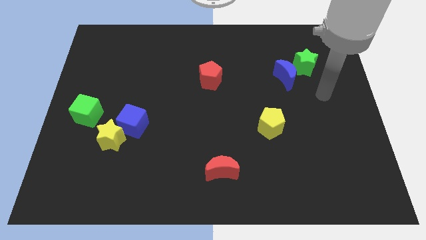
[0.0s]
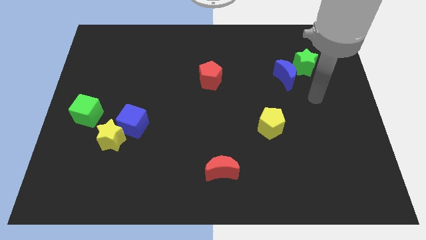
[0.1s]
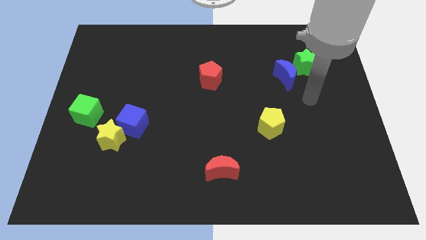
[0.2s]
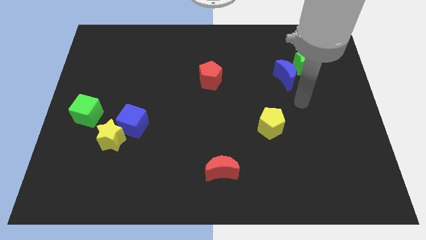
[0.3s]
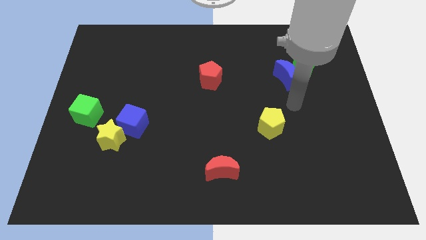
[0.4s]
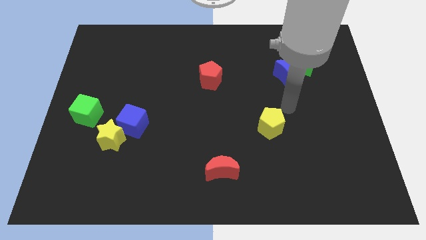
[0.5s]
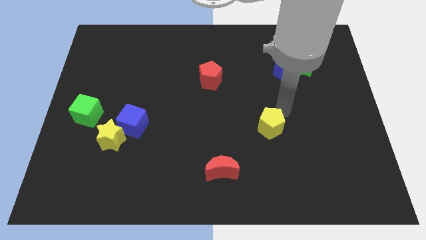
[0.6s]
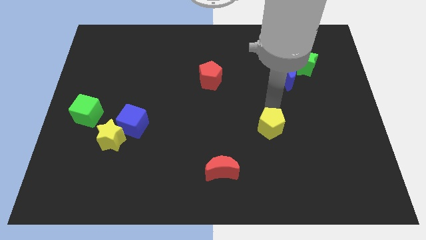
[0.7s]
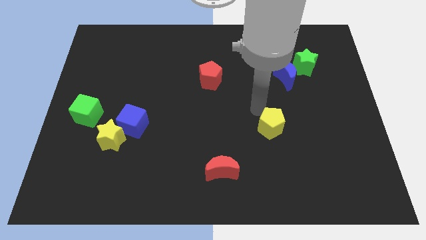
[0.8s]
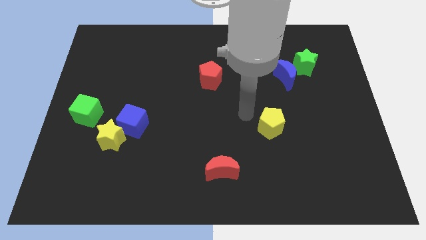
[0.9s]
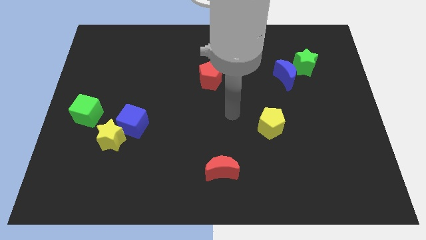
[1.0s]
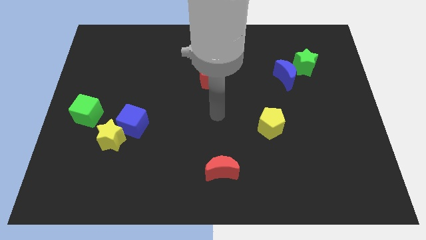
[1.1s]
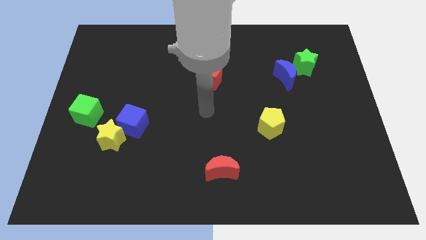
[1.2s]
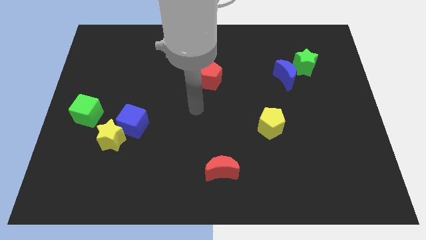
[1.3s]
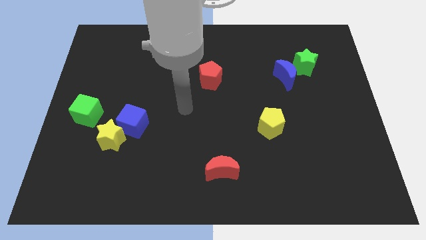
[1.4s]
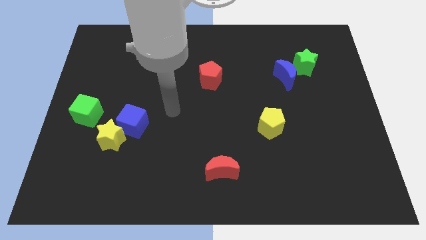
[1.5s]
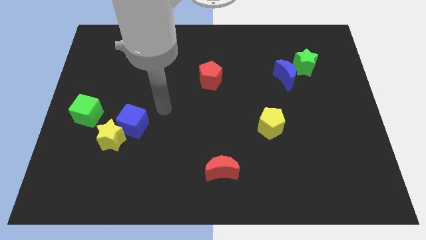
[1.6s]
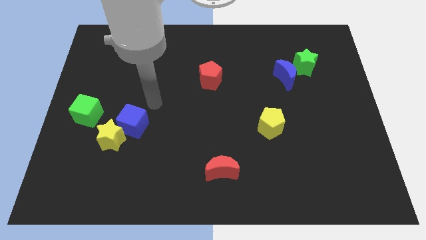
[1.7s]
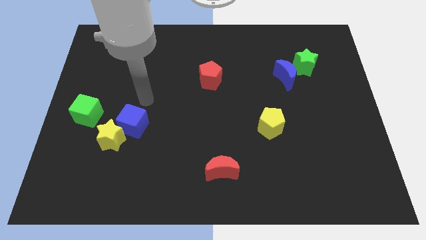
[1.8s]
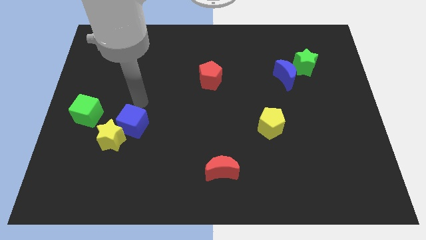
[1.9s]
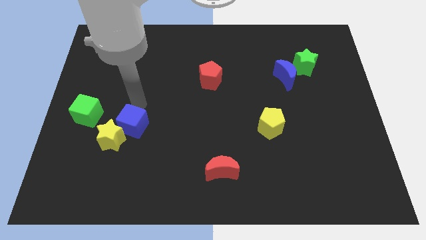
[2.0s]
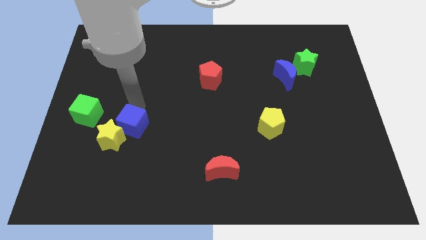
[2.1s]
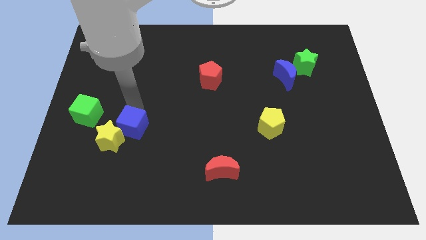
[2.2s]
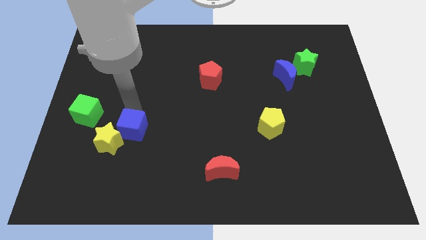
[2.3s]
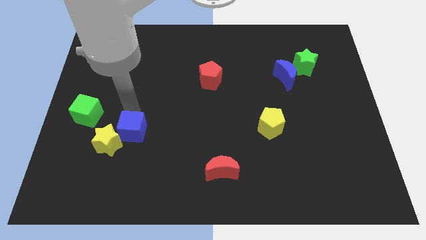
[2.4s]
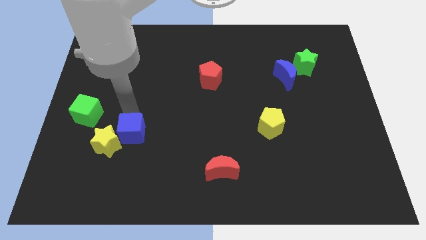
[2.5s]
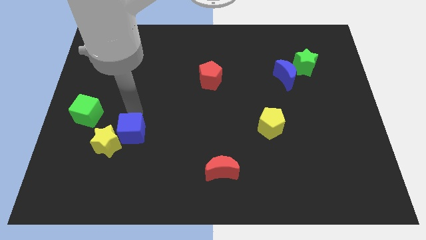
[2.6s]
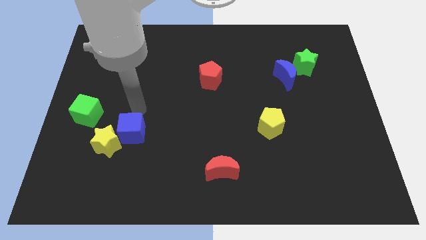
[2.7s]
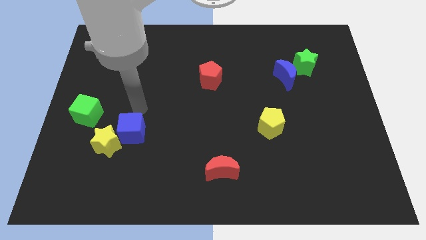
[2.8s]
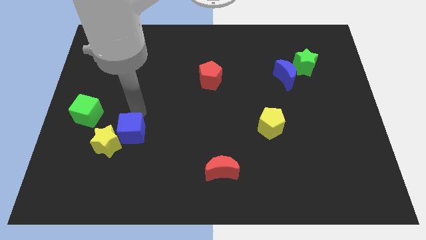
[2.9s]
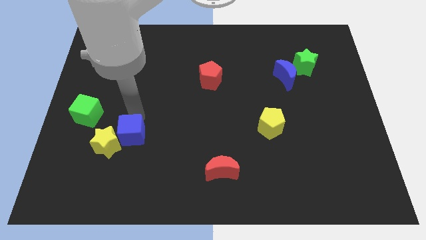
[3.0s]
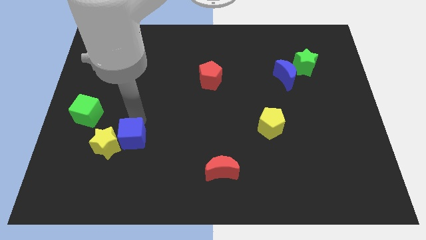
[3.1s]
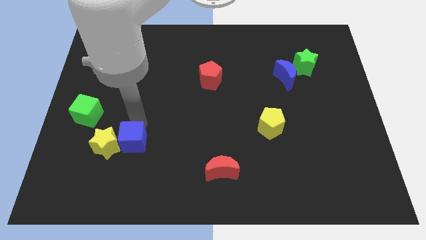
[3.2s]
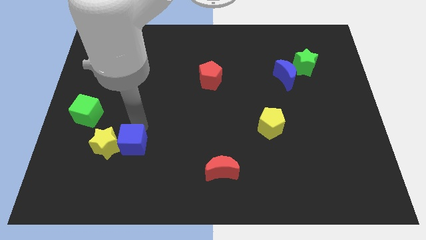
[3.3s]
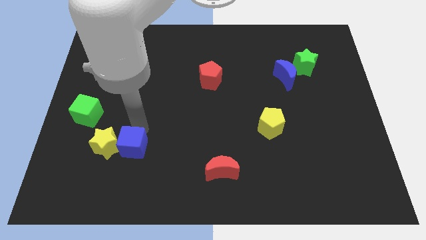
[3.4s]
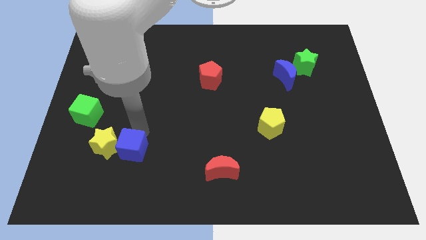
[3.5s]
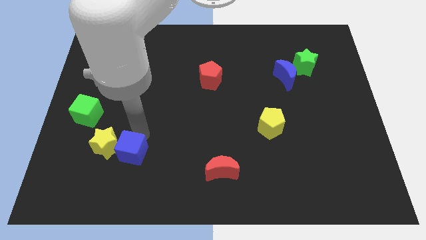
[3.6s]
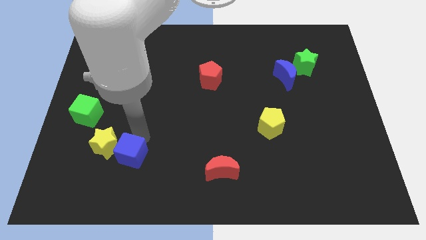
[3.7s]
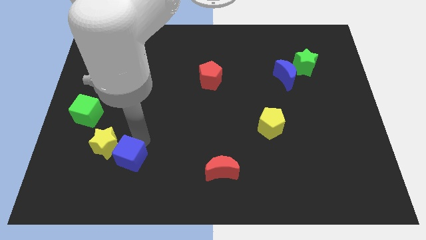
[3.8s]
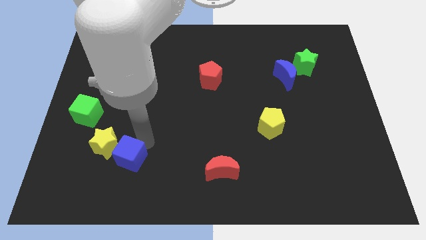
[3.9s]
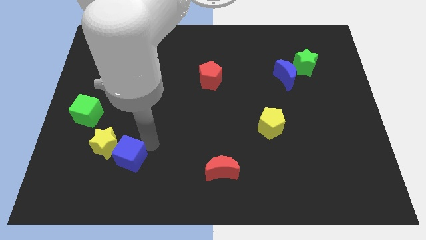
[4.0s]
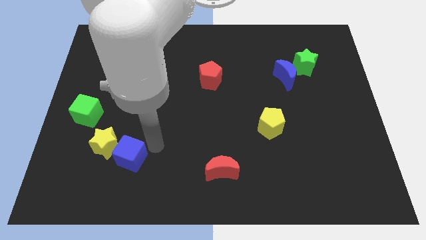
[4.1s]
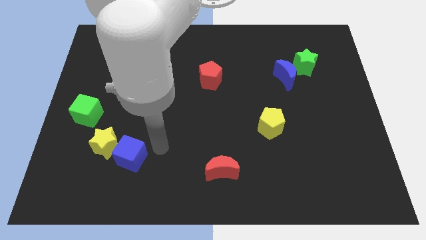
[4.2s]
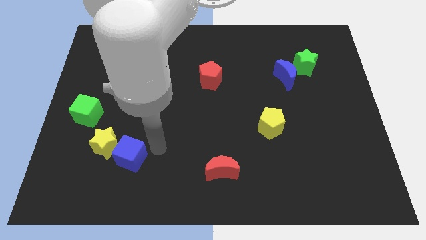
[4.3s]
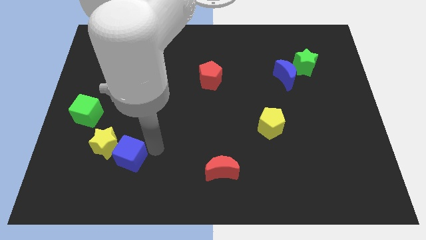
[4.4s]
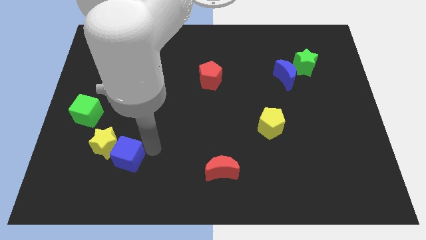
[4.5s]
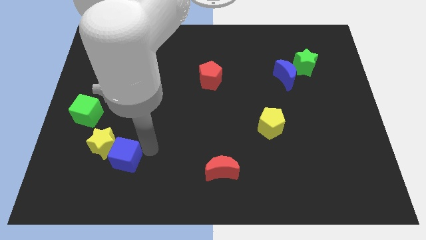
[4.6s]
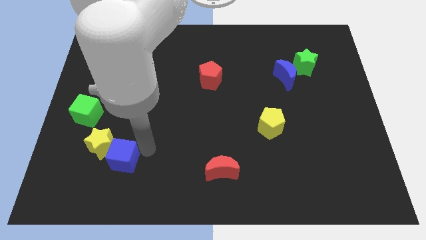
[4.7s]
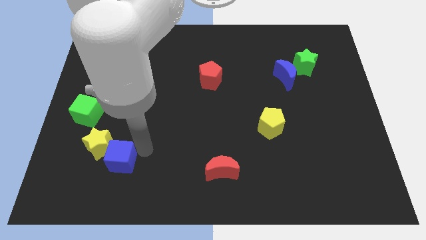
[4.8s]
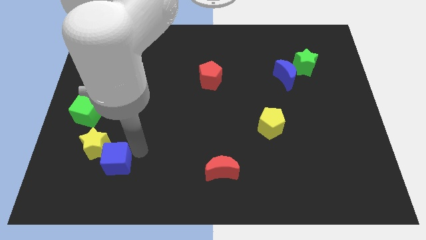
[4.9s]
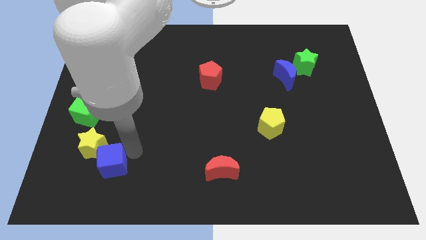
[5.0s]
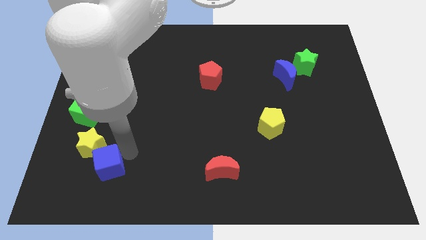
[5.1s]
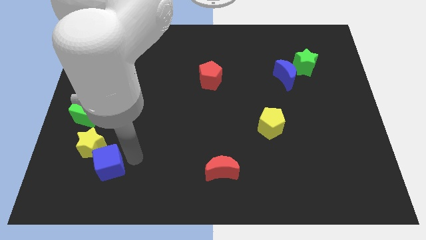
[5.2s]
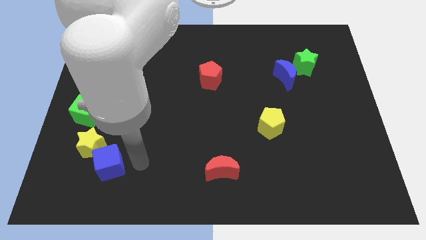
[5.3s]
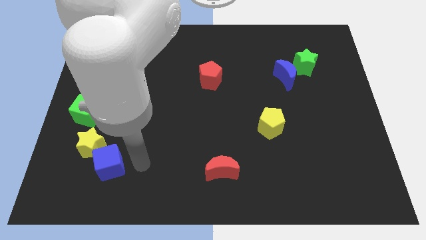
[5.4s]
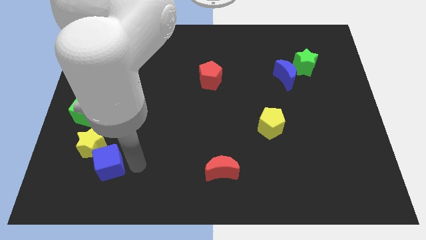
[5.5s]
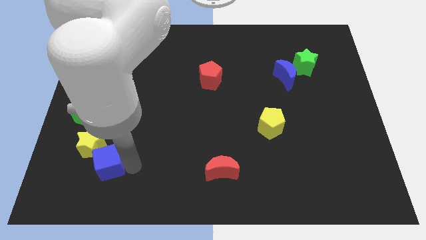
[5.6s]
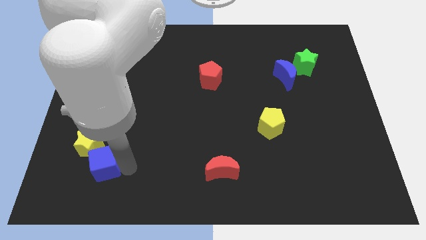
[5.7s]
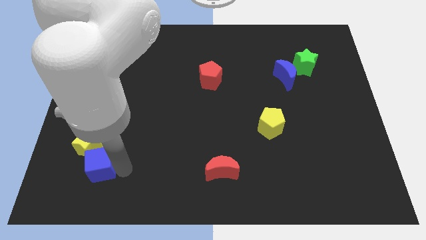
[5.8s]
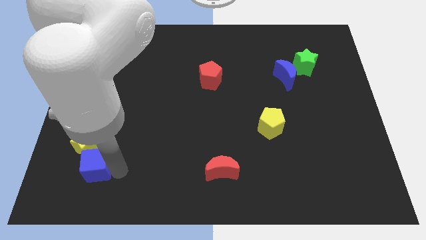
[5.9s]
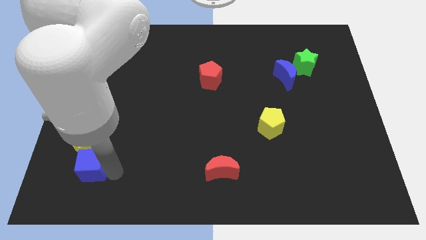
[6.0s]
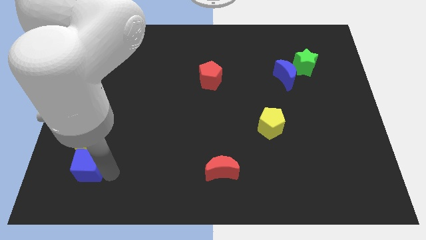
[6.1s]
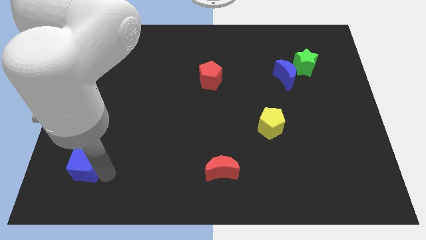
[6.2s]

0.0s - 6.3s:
slide the blue cube to the bottom left side of the yellow star

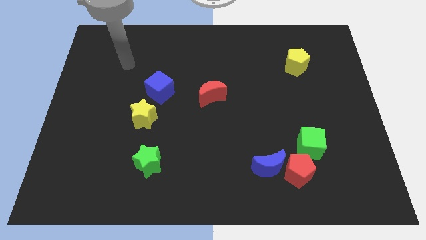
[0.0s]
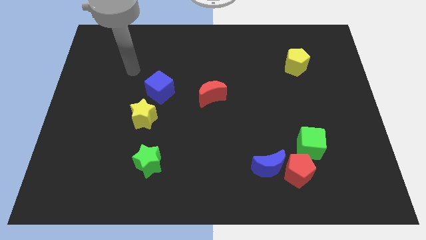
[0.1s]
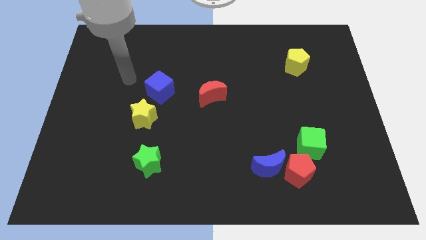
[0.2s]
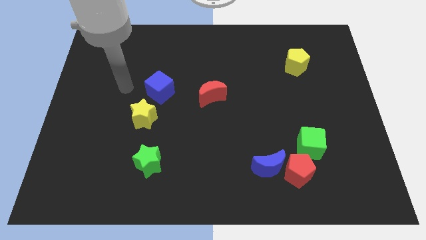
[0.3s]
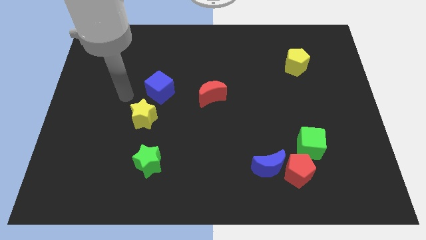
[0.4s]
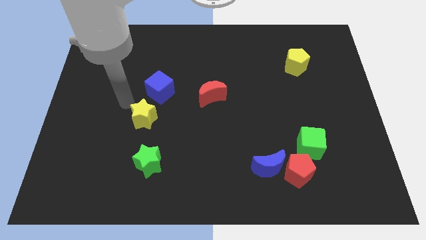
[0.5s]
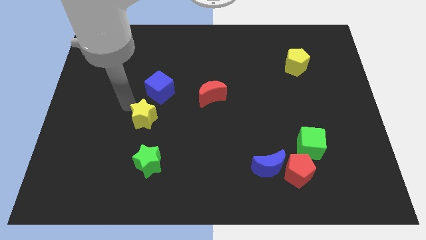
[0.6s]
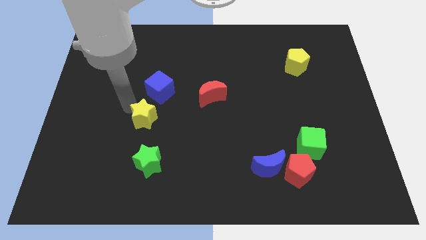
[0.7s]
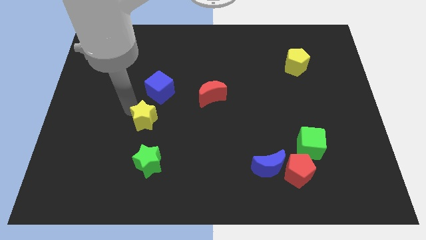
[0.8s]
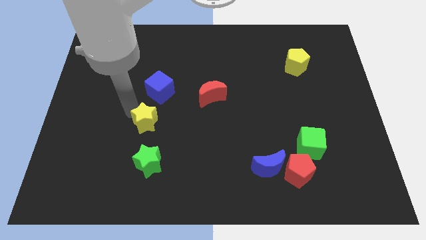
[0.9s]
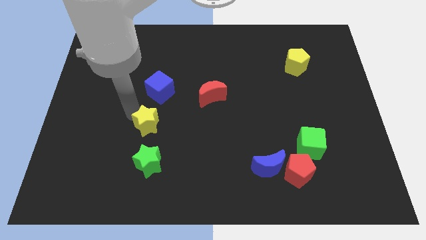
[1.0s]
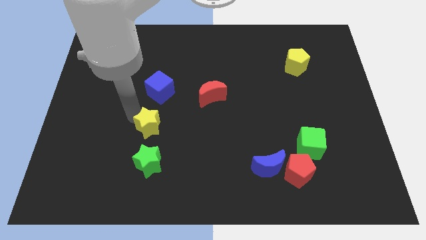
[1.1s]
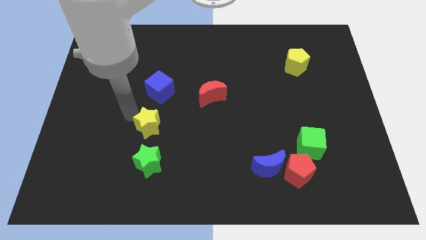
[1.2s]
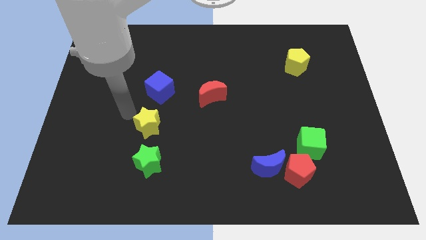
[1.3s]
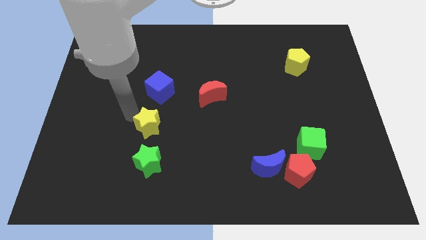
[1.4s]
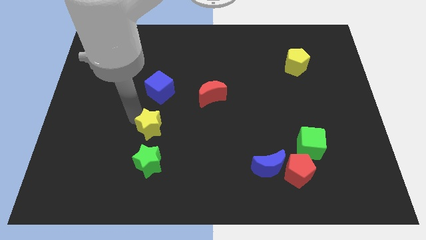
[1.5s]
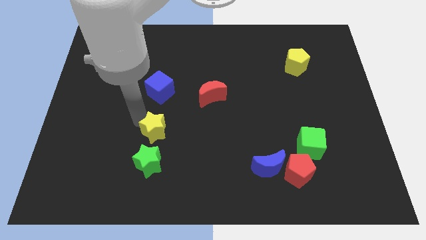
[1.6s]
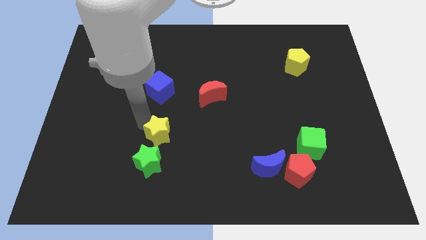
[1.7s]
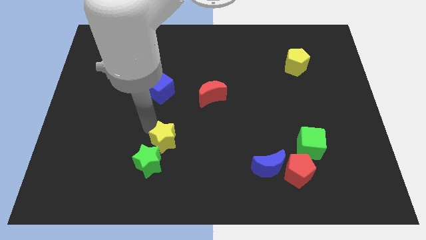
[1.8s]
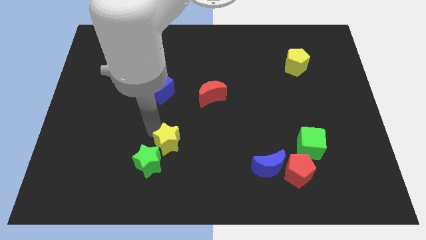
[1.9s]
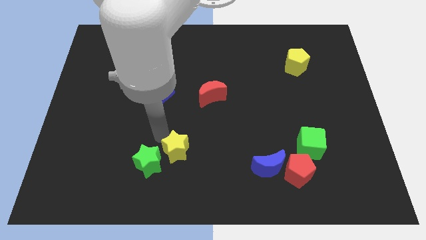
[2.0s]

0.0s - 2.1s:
push the yellow star to the right of the green star

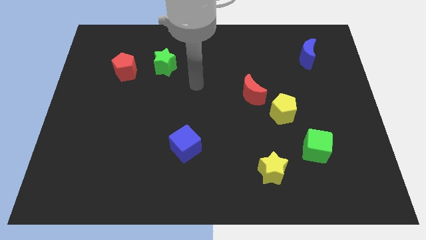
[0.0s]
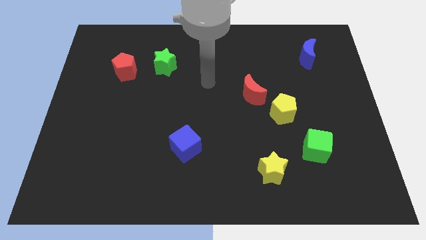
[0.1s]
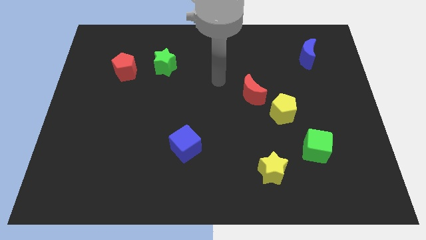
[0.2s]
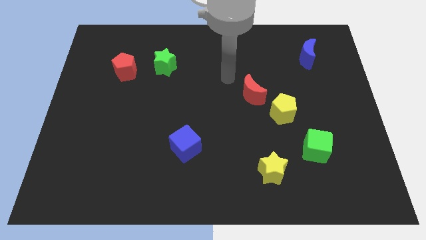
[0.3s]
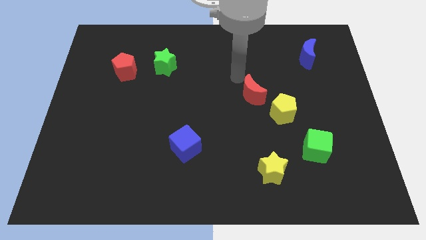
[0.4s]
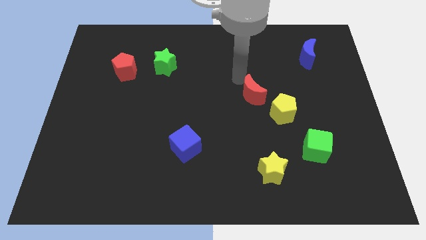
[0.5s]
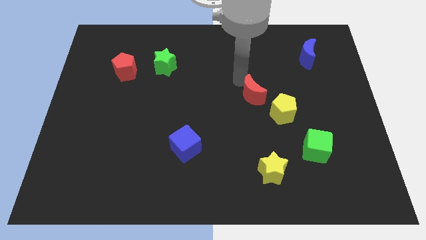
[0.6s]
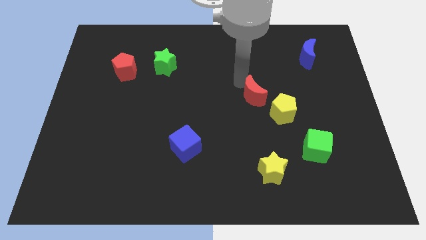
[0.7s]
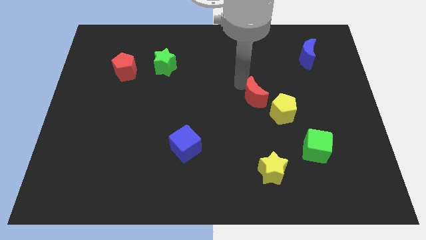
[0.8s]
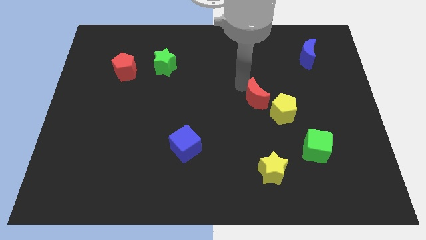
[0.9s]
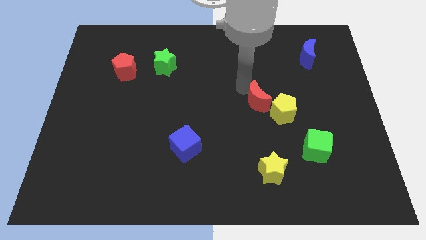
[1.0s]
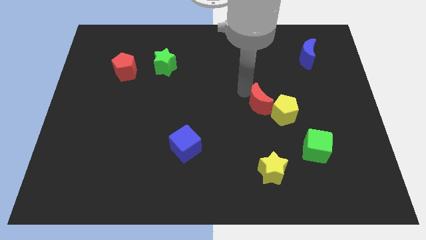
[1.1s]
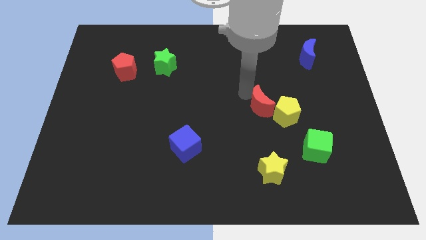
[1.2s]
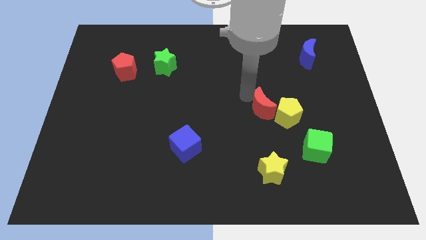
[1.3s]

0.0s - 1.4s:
move the red moon above the yellow star
